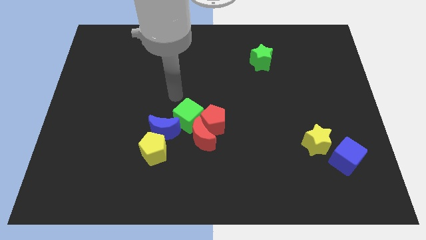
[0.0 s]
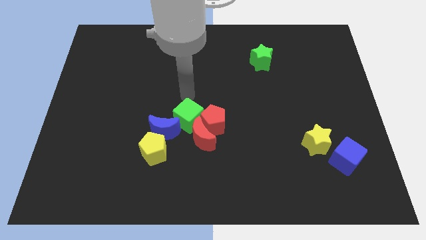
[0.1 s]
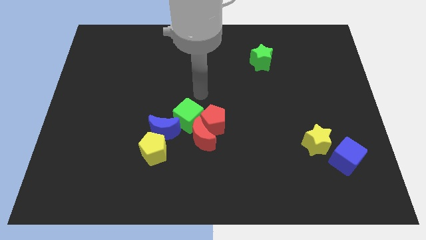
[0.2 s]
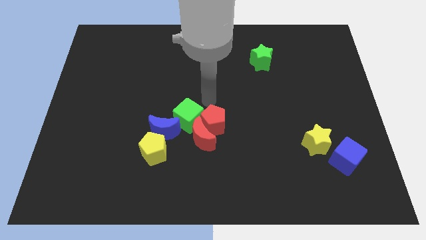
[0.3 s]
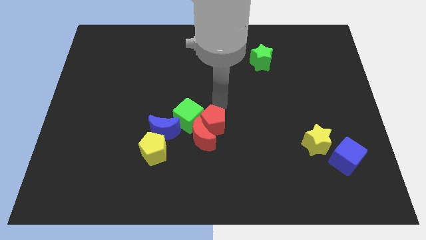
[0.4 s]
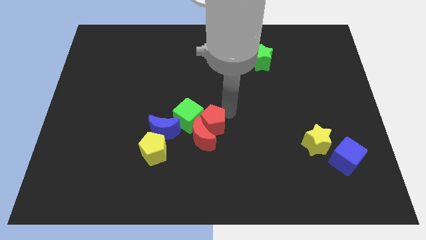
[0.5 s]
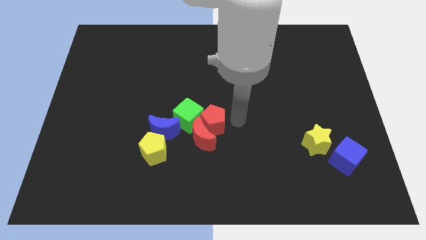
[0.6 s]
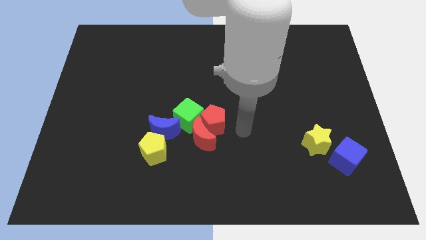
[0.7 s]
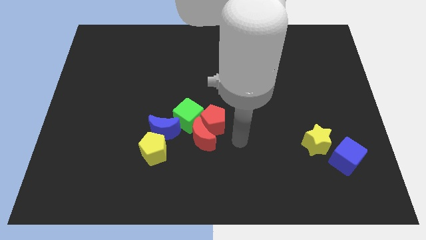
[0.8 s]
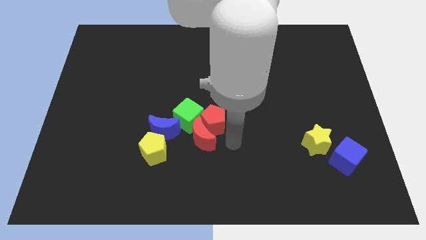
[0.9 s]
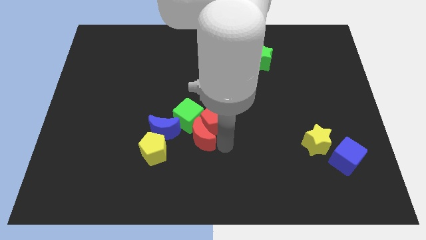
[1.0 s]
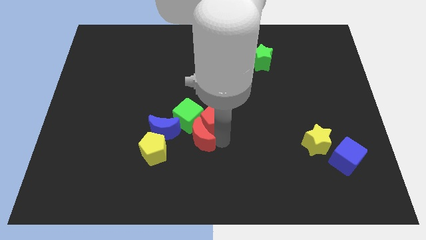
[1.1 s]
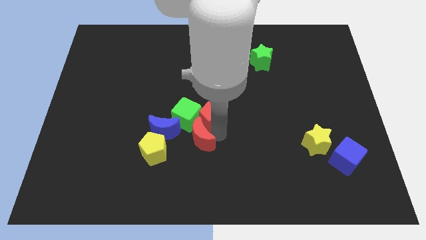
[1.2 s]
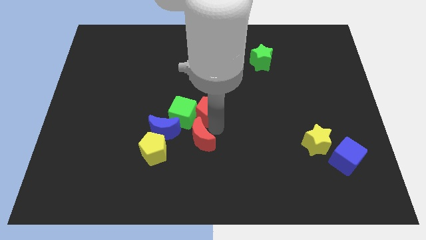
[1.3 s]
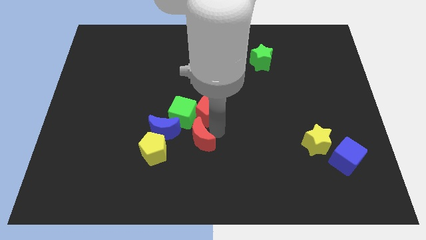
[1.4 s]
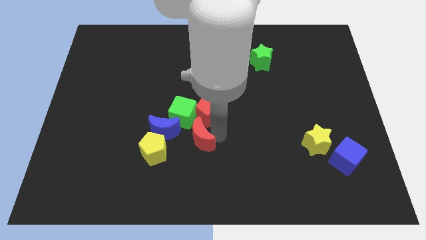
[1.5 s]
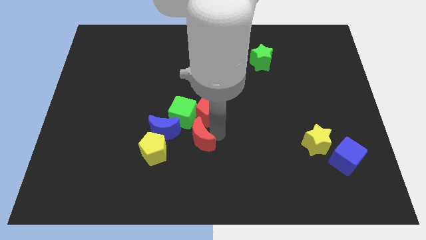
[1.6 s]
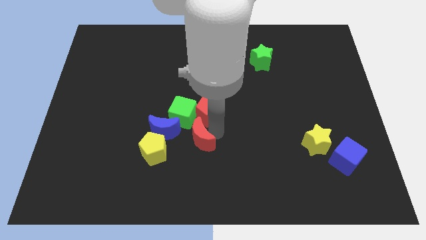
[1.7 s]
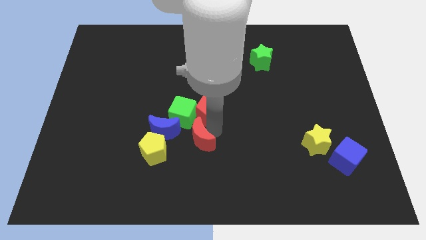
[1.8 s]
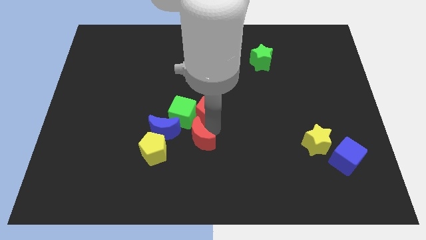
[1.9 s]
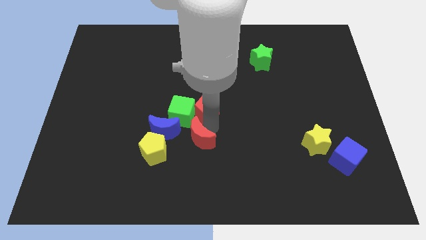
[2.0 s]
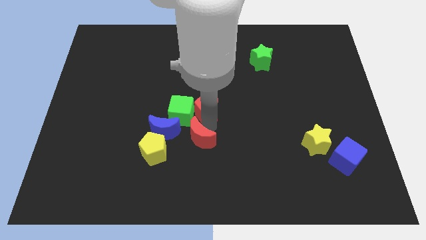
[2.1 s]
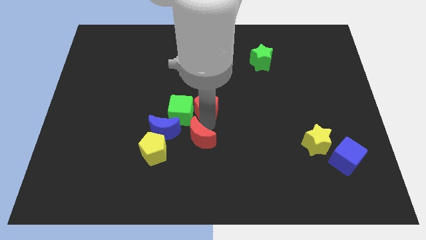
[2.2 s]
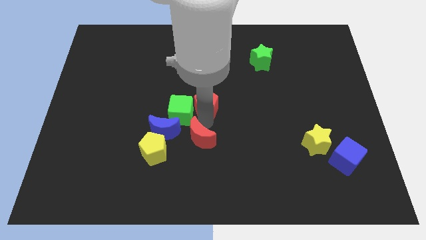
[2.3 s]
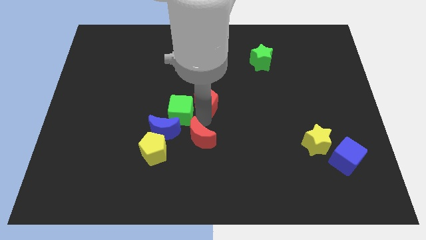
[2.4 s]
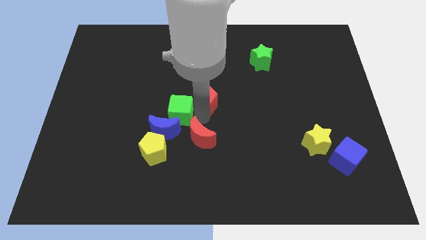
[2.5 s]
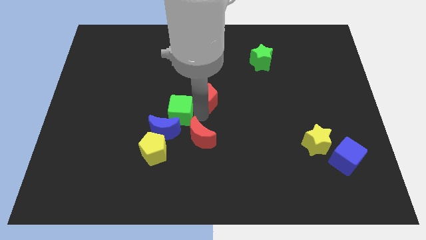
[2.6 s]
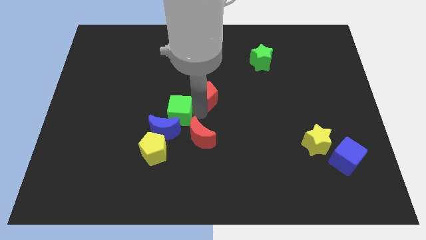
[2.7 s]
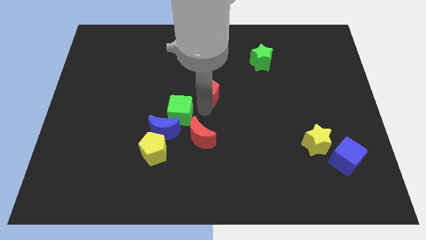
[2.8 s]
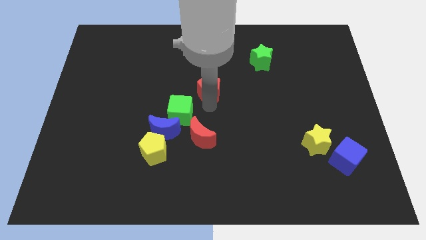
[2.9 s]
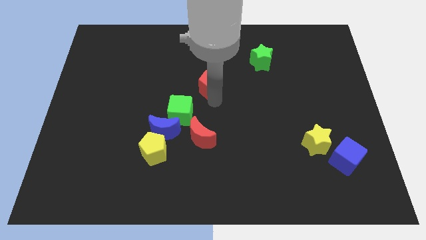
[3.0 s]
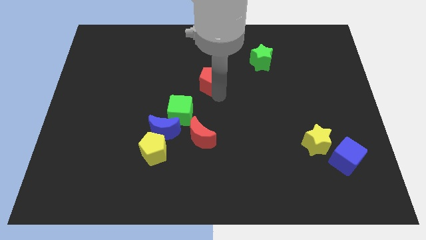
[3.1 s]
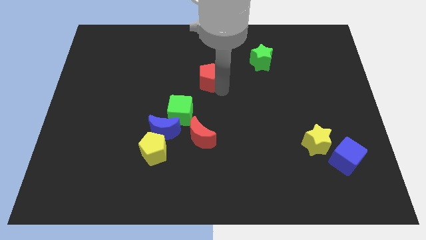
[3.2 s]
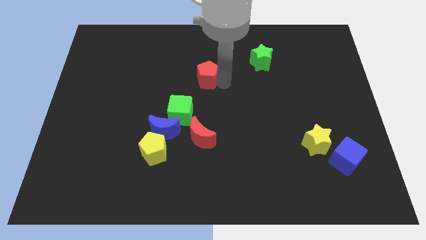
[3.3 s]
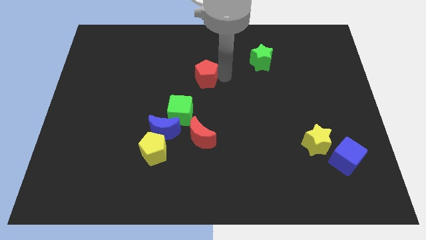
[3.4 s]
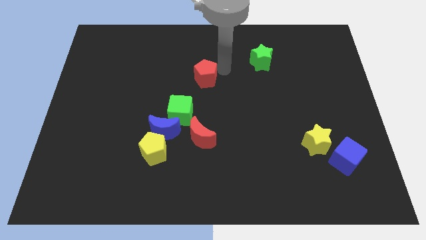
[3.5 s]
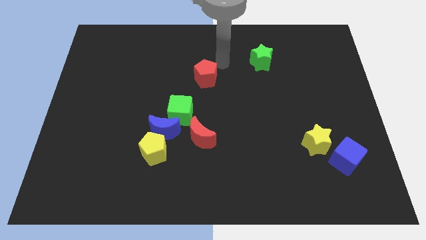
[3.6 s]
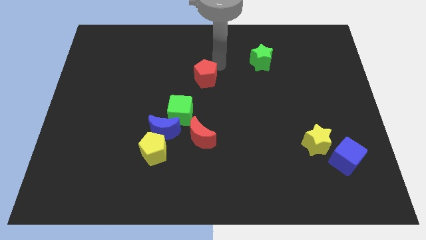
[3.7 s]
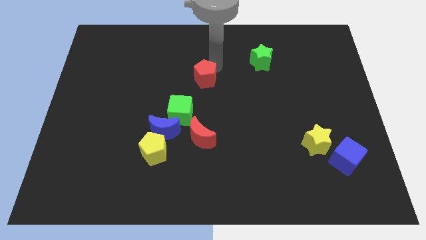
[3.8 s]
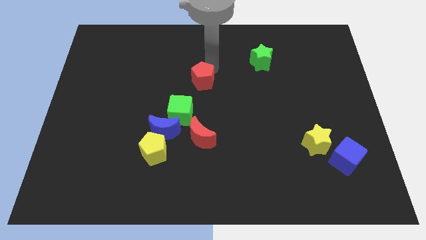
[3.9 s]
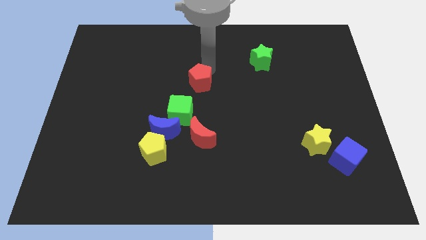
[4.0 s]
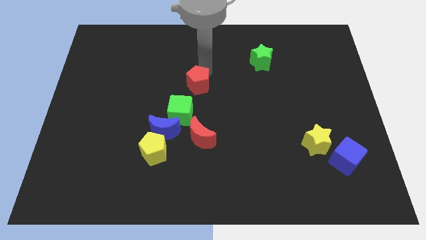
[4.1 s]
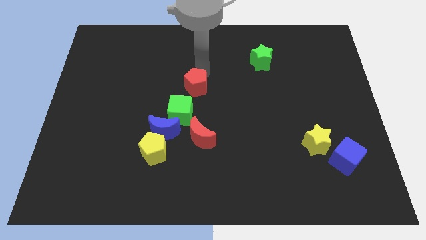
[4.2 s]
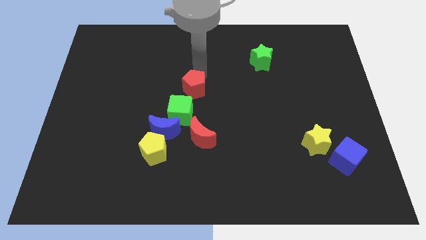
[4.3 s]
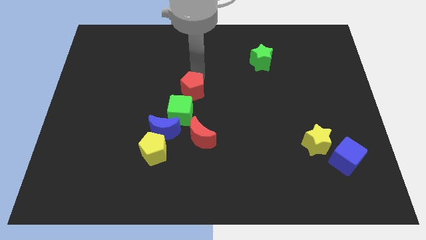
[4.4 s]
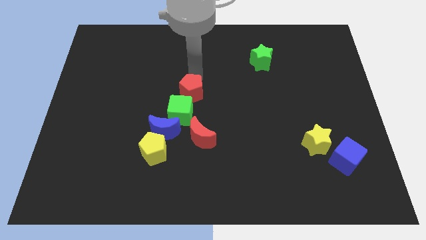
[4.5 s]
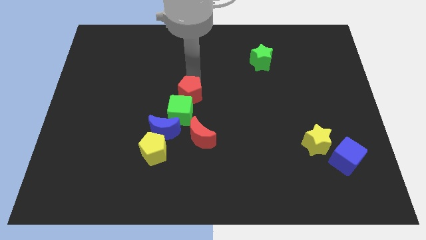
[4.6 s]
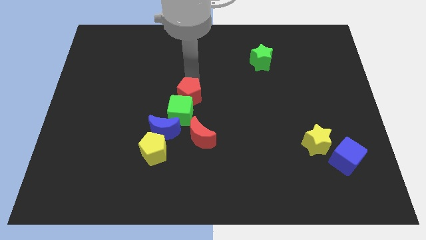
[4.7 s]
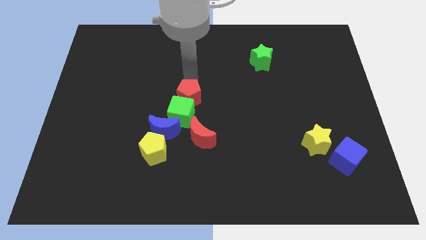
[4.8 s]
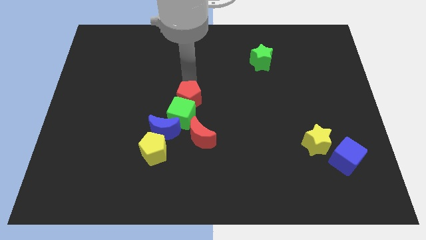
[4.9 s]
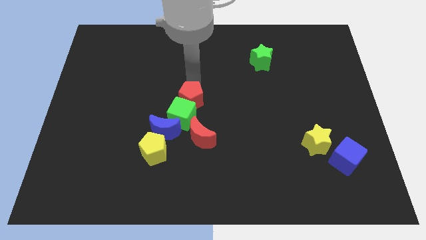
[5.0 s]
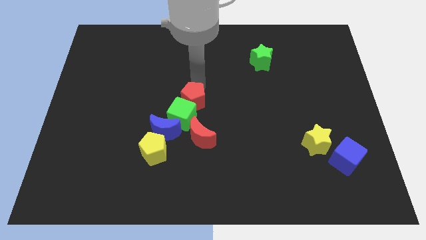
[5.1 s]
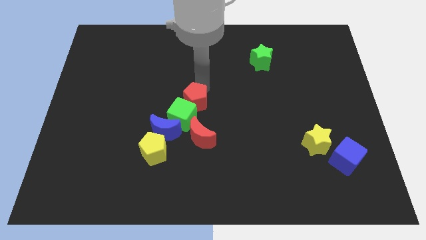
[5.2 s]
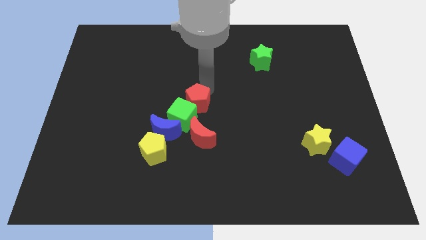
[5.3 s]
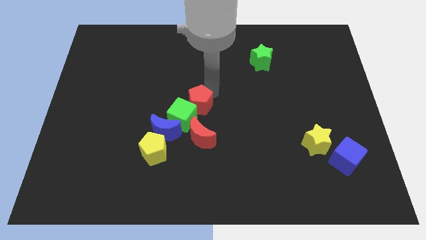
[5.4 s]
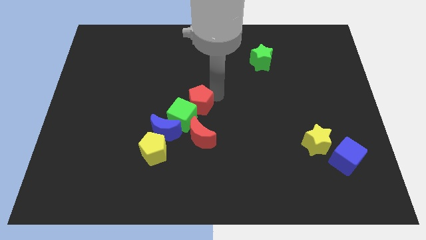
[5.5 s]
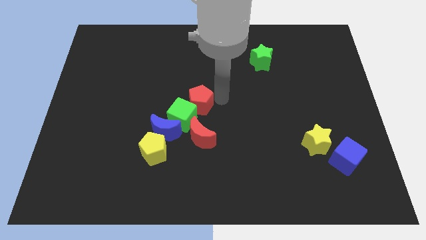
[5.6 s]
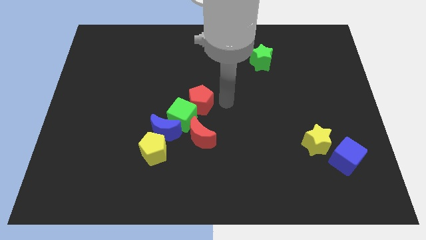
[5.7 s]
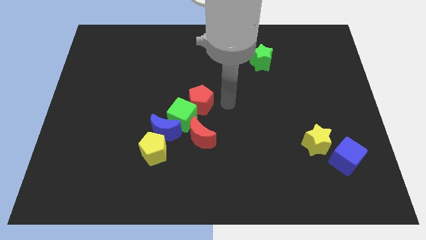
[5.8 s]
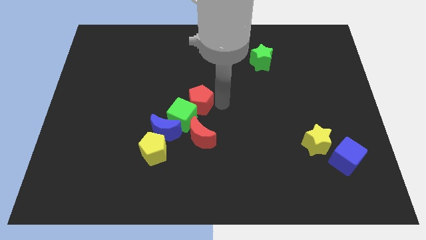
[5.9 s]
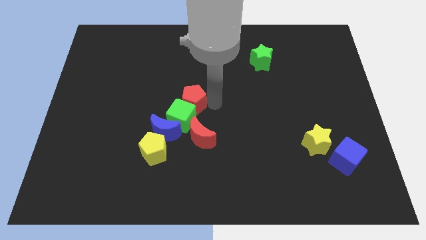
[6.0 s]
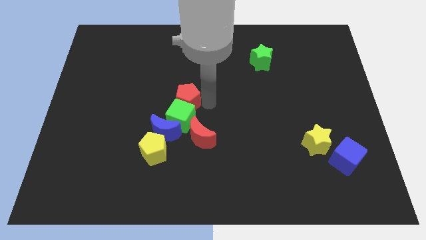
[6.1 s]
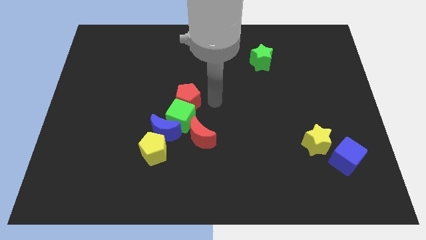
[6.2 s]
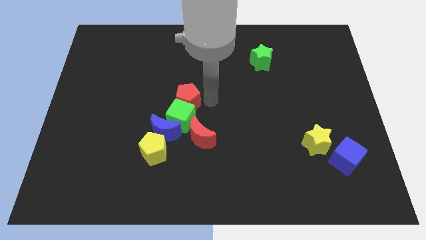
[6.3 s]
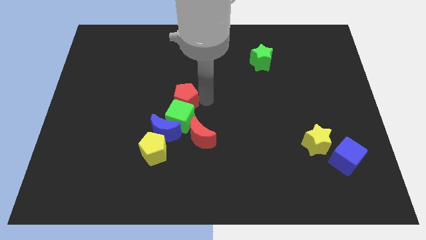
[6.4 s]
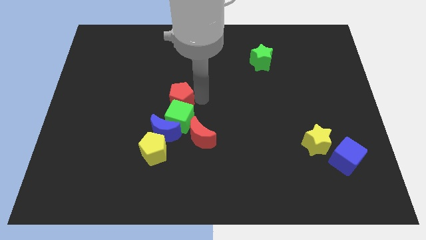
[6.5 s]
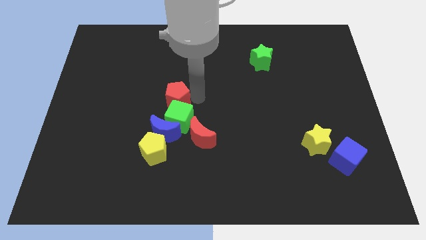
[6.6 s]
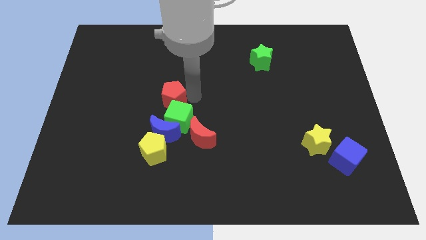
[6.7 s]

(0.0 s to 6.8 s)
move the red pentagon to the left a bit

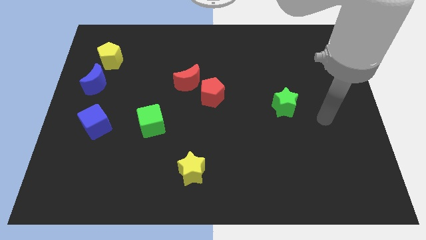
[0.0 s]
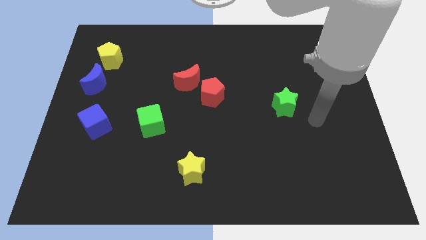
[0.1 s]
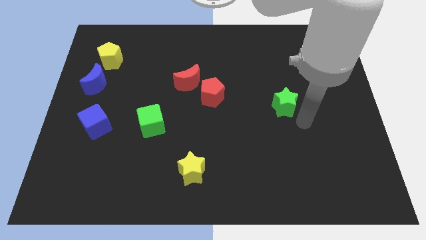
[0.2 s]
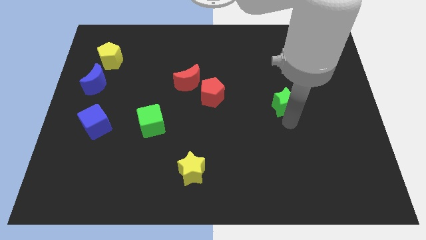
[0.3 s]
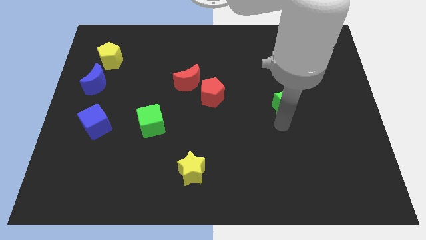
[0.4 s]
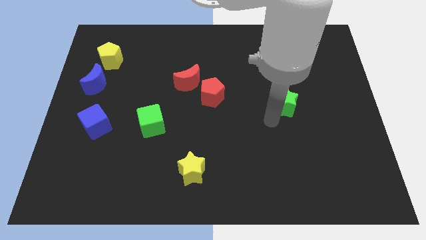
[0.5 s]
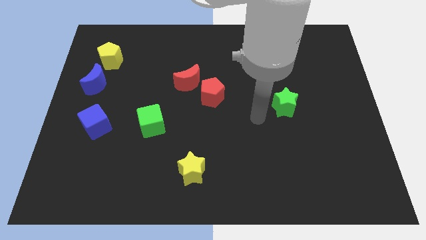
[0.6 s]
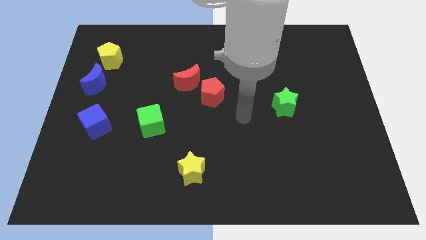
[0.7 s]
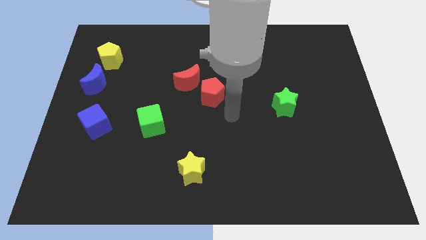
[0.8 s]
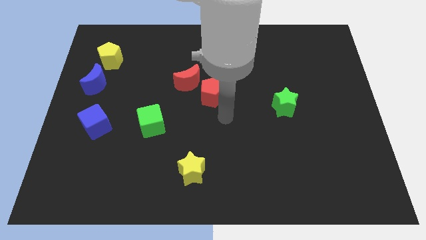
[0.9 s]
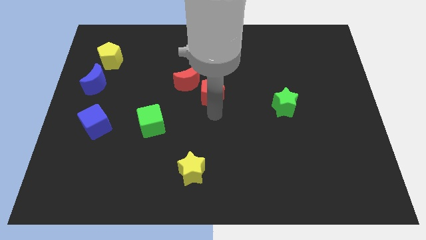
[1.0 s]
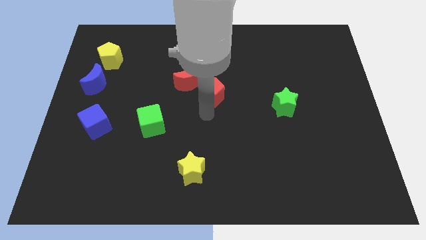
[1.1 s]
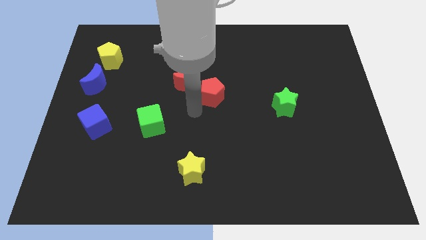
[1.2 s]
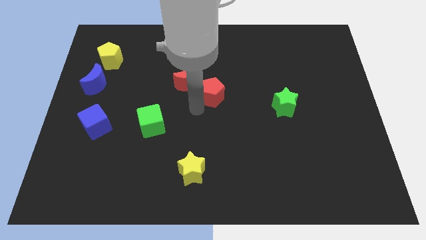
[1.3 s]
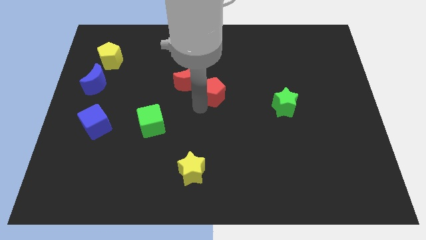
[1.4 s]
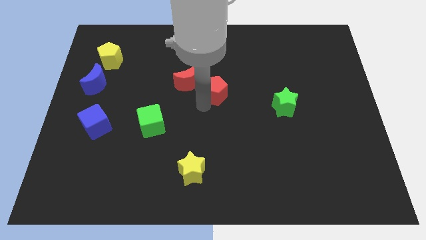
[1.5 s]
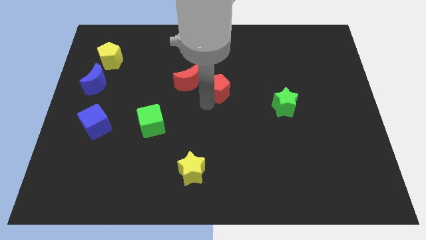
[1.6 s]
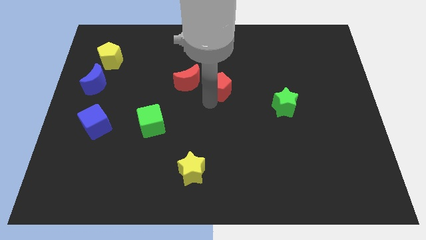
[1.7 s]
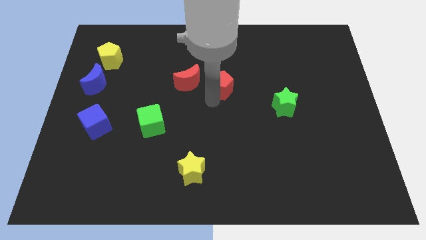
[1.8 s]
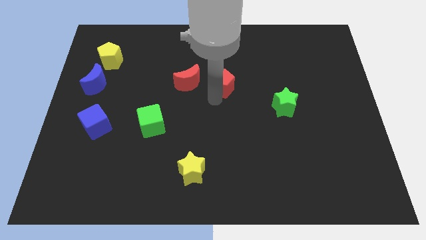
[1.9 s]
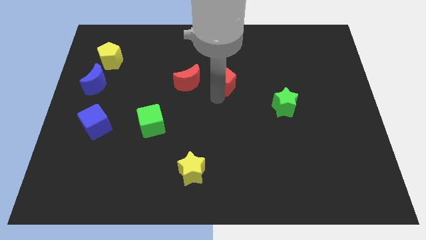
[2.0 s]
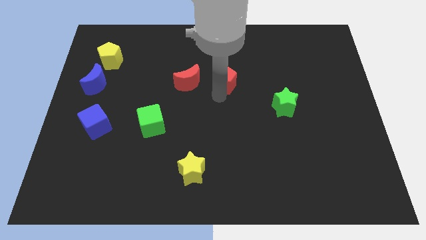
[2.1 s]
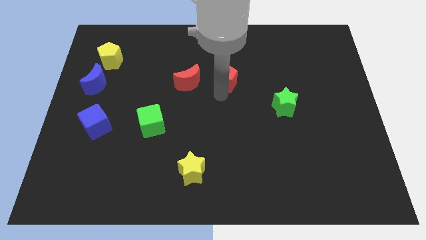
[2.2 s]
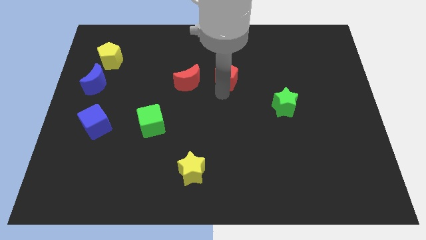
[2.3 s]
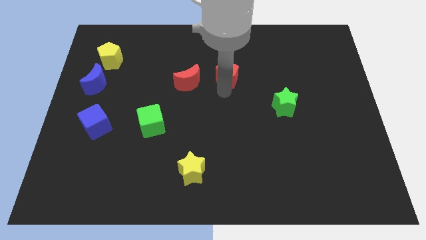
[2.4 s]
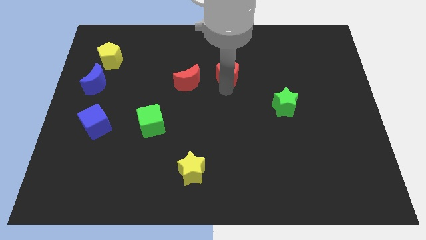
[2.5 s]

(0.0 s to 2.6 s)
slightly move the red pentagon up and right diagonally
